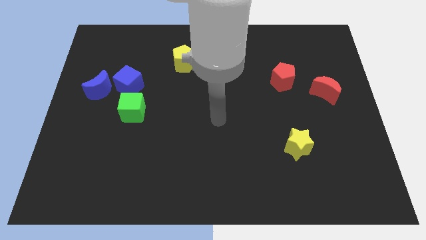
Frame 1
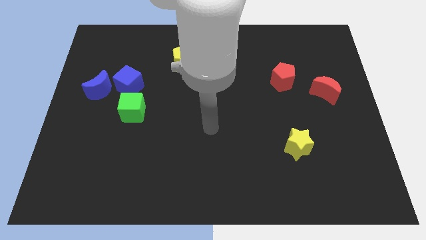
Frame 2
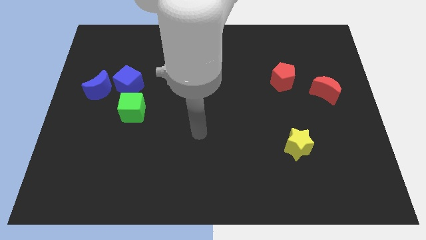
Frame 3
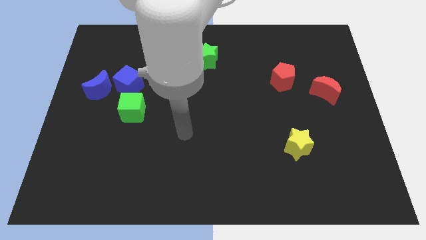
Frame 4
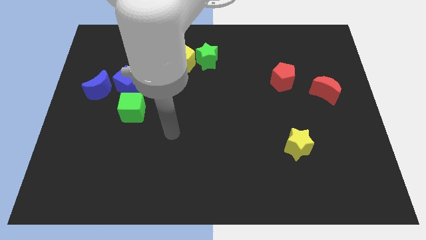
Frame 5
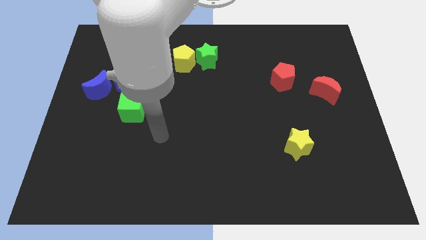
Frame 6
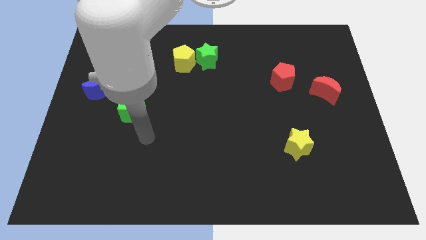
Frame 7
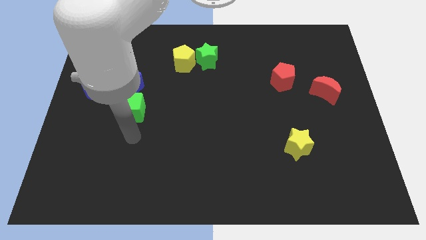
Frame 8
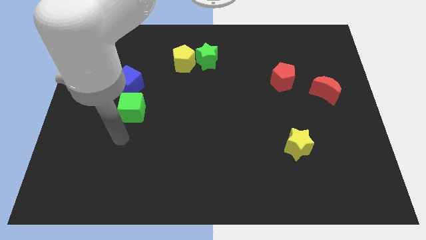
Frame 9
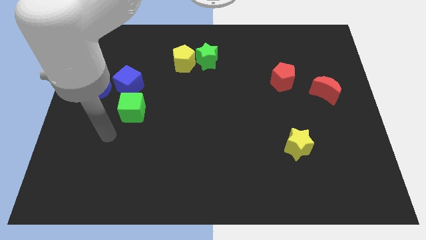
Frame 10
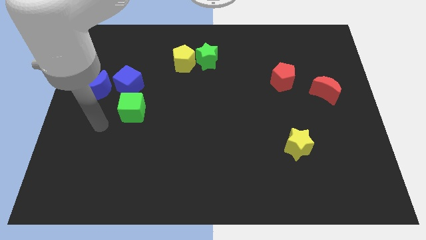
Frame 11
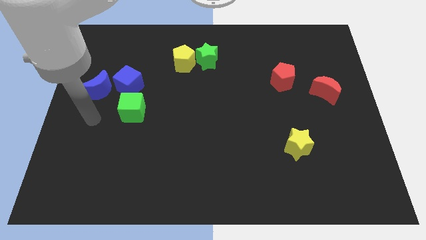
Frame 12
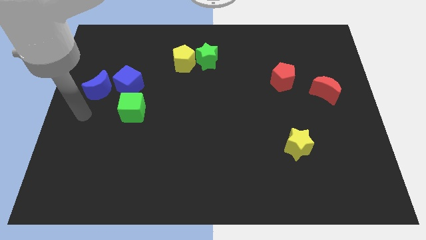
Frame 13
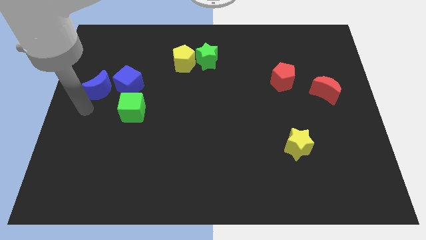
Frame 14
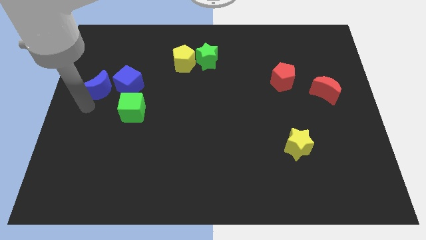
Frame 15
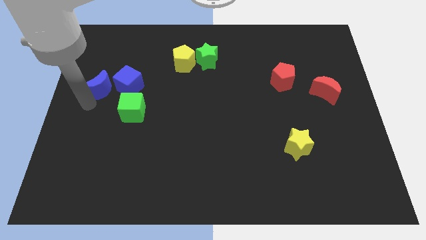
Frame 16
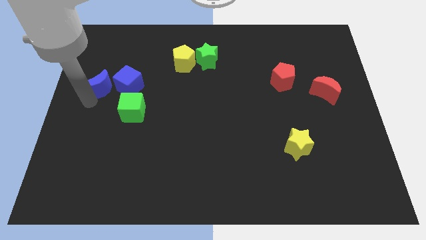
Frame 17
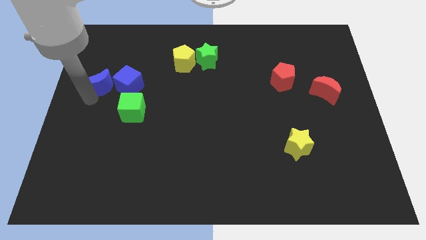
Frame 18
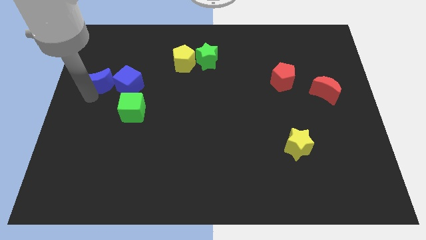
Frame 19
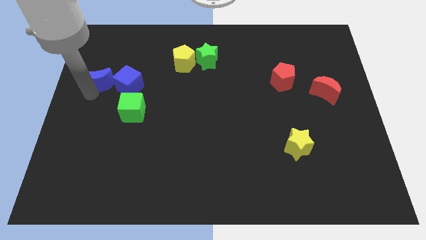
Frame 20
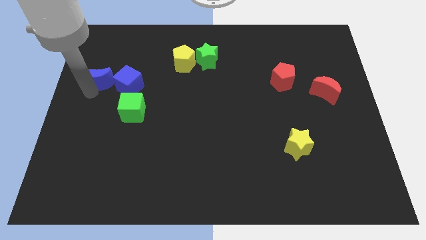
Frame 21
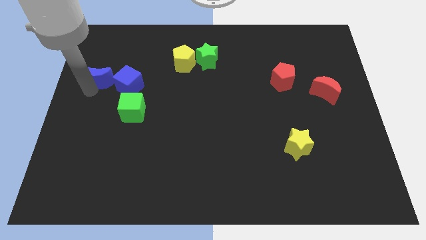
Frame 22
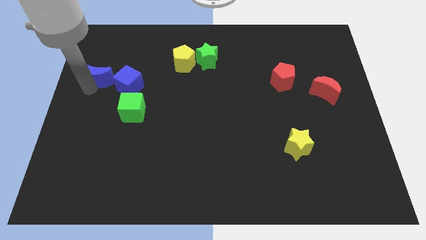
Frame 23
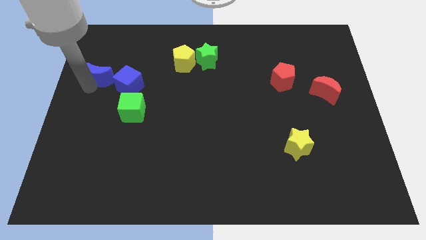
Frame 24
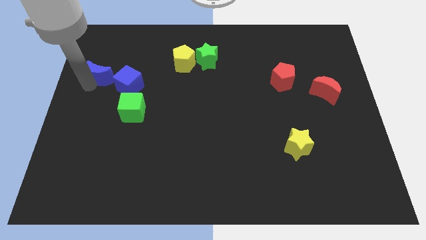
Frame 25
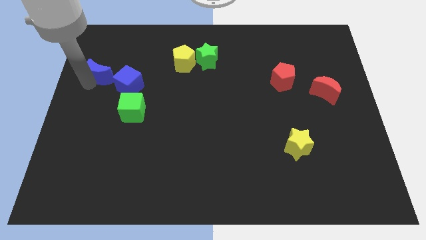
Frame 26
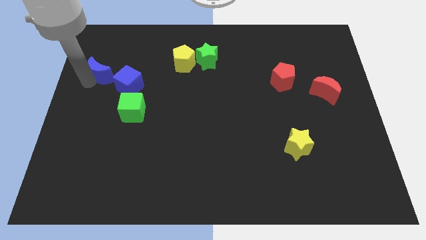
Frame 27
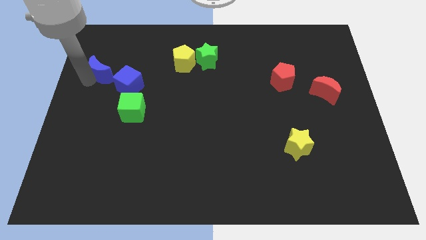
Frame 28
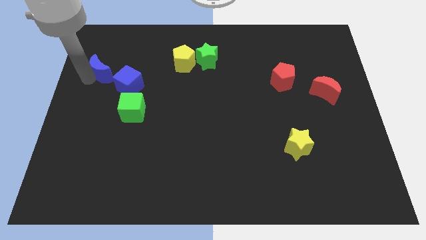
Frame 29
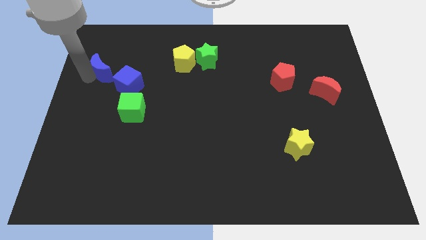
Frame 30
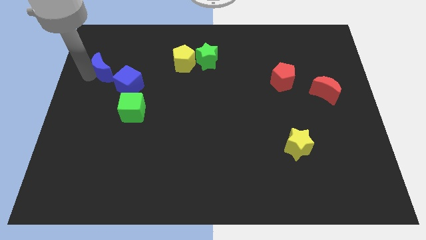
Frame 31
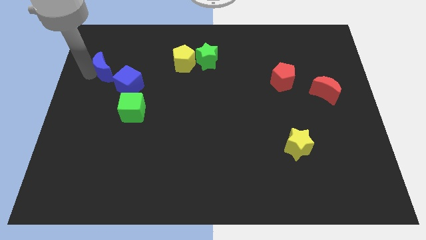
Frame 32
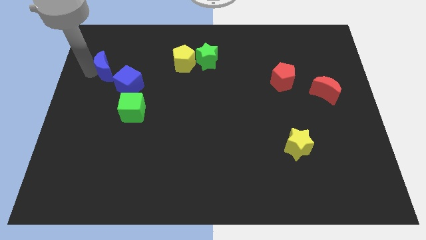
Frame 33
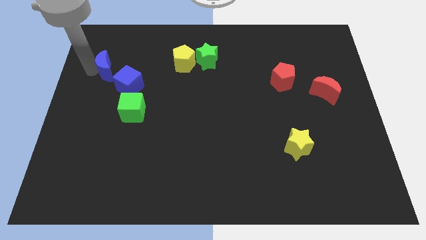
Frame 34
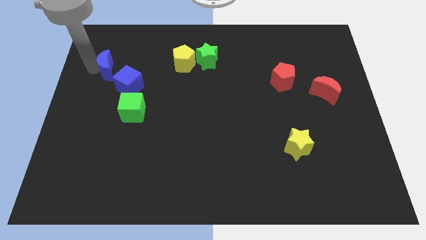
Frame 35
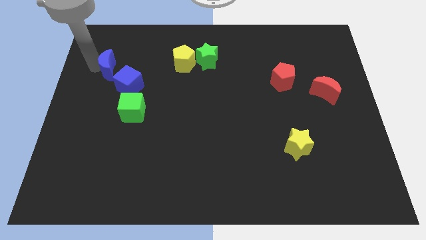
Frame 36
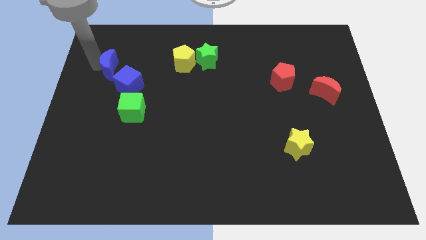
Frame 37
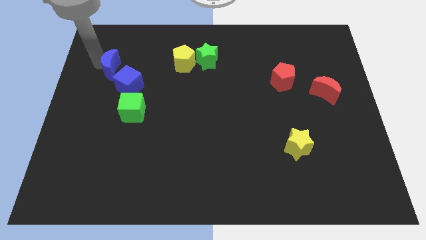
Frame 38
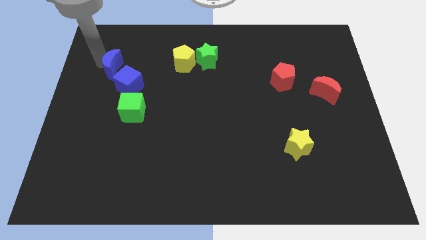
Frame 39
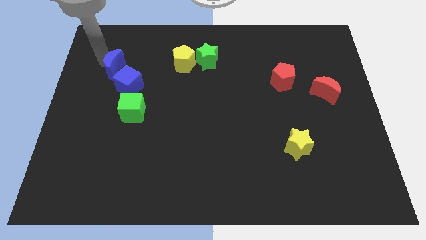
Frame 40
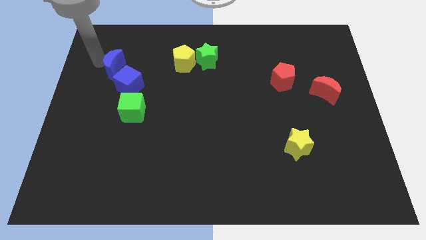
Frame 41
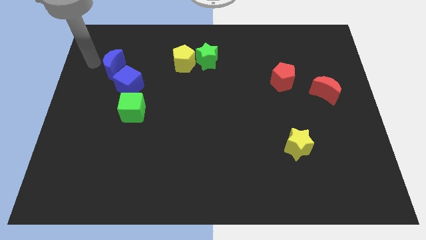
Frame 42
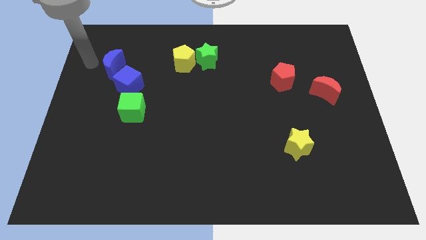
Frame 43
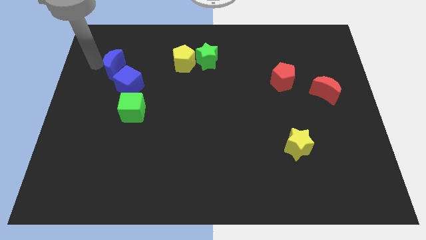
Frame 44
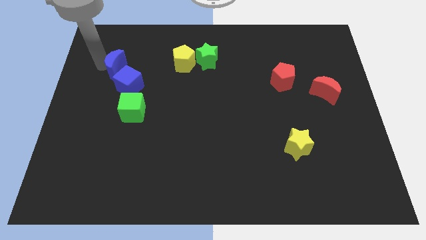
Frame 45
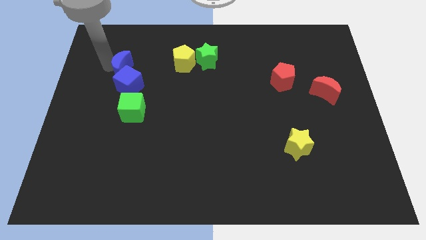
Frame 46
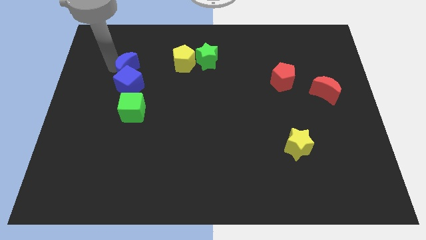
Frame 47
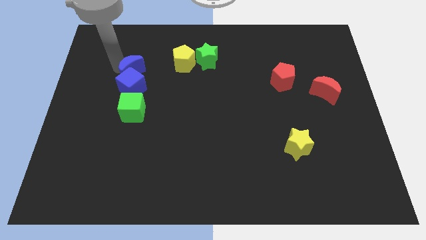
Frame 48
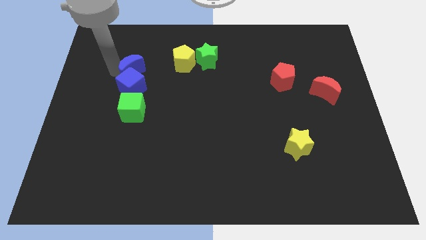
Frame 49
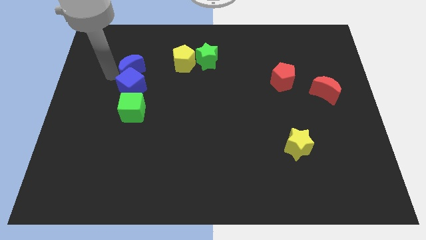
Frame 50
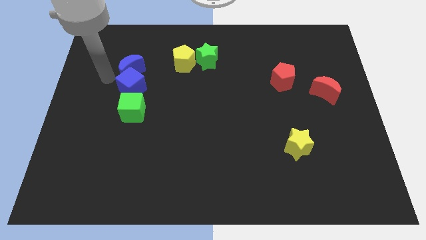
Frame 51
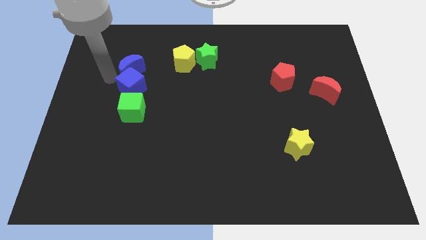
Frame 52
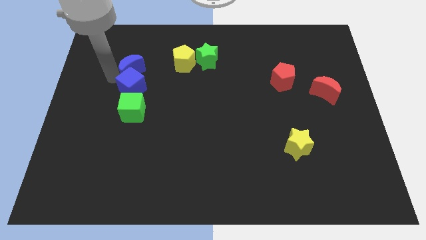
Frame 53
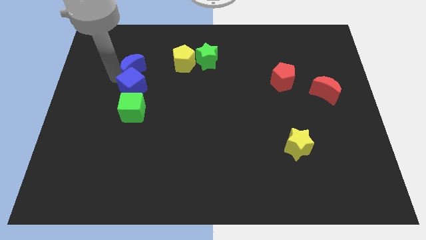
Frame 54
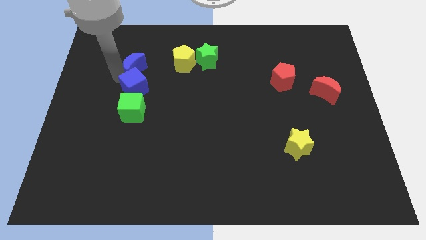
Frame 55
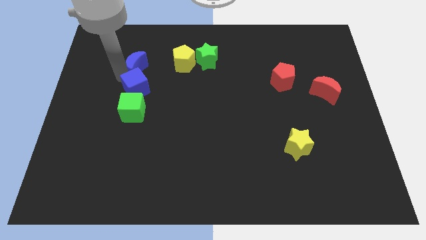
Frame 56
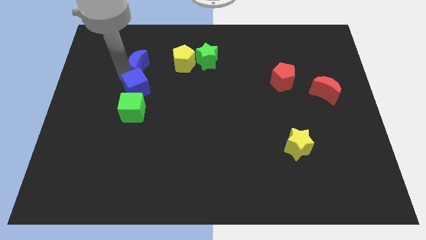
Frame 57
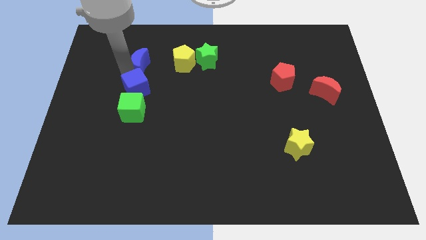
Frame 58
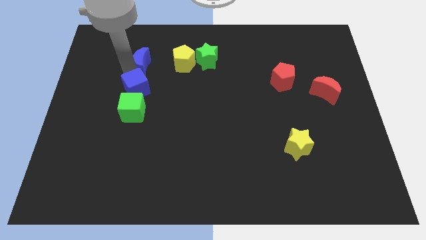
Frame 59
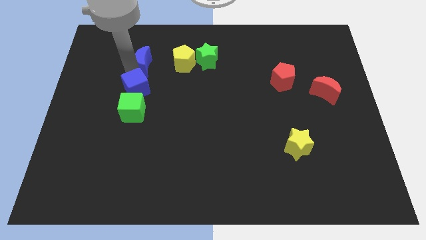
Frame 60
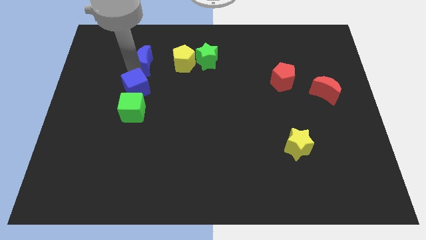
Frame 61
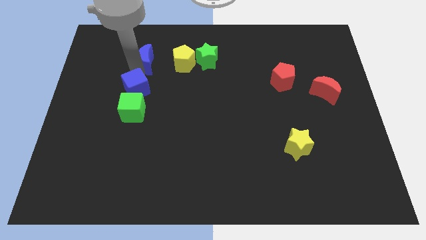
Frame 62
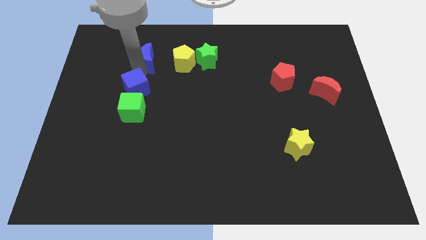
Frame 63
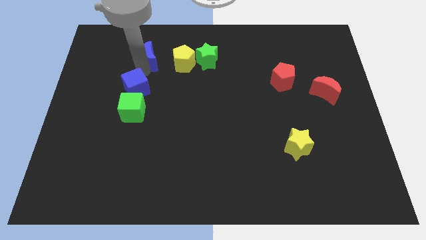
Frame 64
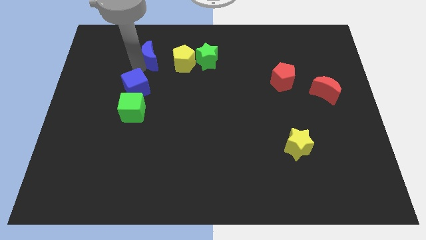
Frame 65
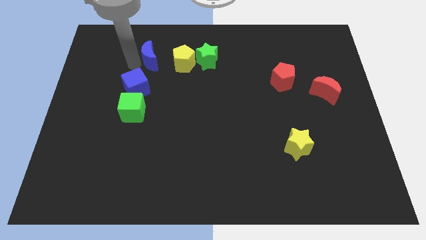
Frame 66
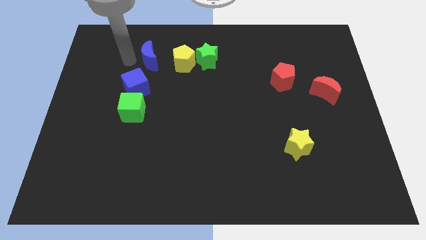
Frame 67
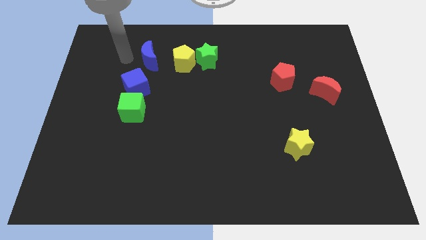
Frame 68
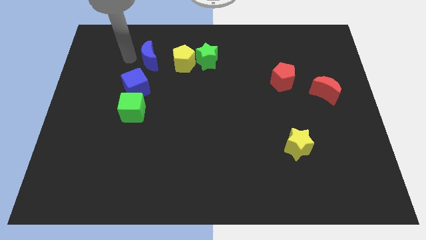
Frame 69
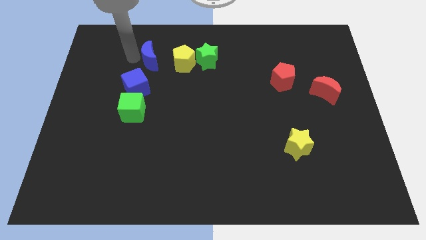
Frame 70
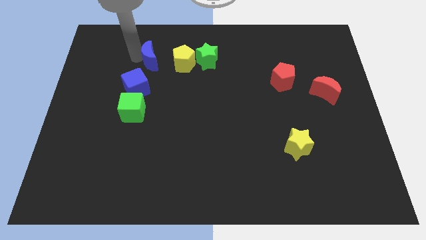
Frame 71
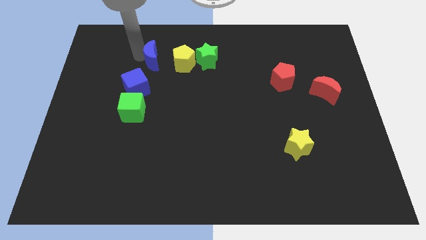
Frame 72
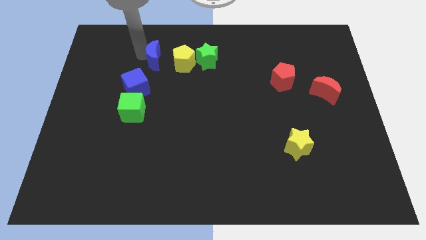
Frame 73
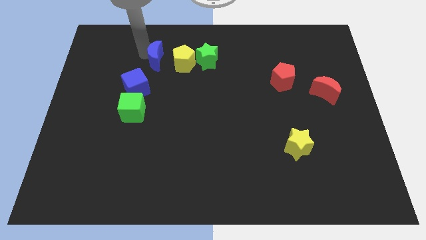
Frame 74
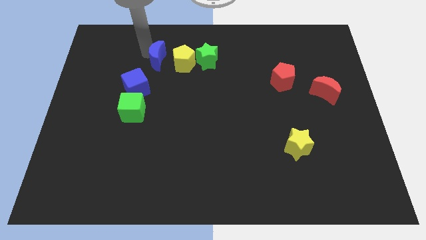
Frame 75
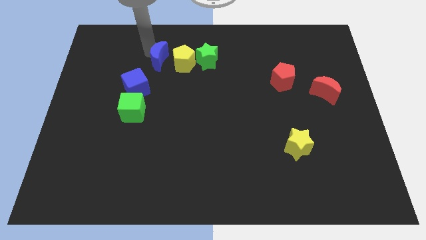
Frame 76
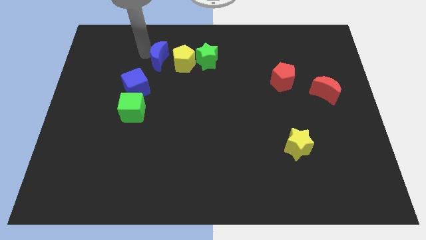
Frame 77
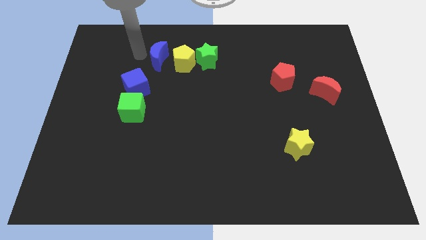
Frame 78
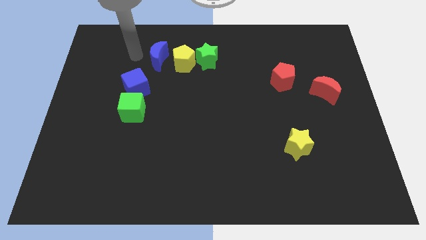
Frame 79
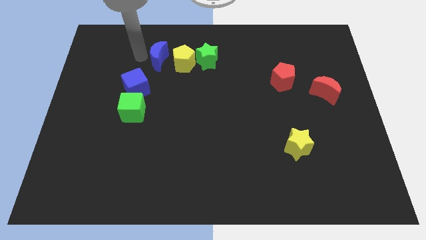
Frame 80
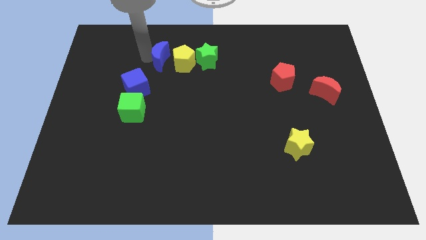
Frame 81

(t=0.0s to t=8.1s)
push the blue moon close to the yellow pentagon
